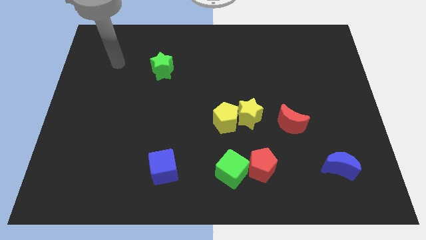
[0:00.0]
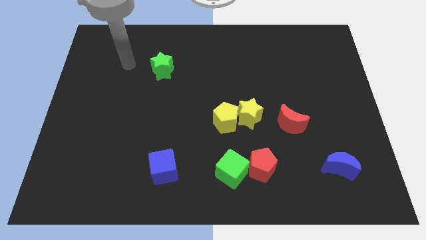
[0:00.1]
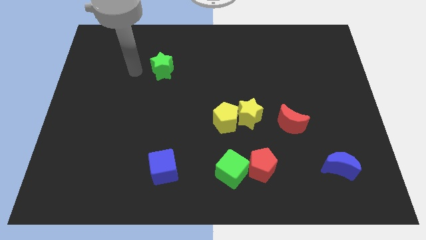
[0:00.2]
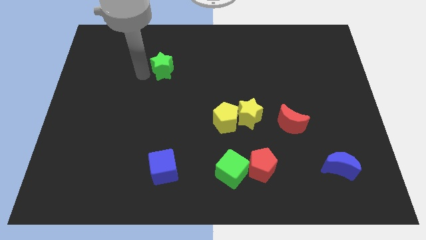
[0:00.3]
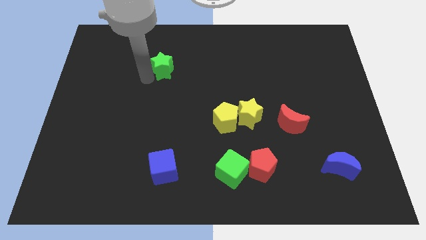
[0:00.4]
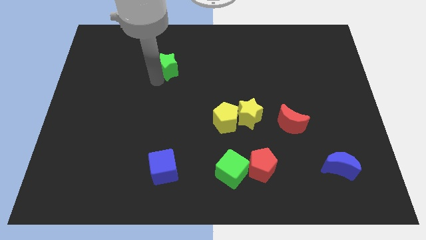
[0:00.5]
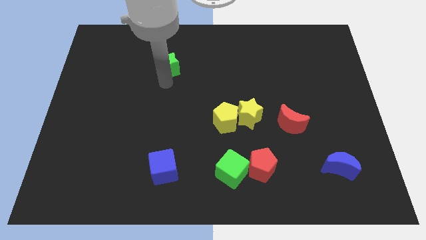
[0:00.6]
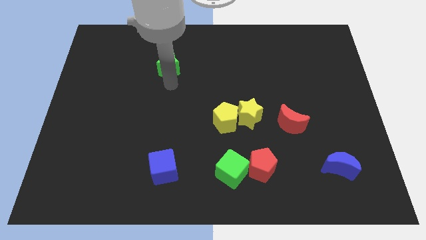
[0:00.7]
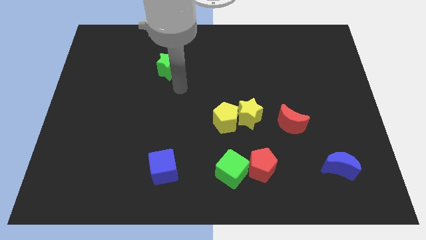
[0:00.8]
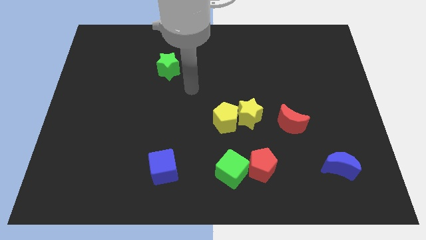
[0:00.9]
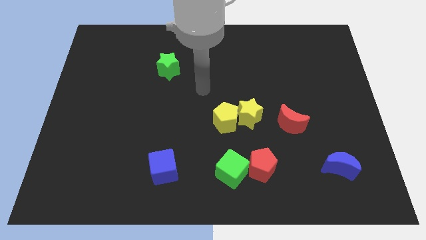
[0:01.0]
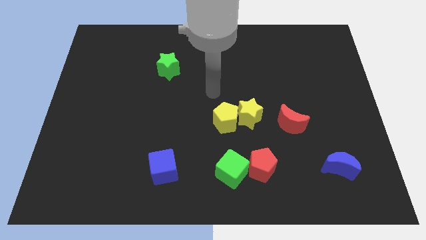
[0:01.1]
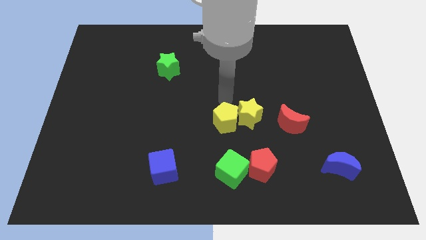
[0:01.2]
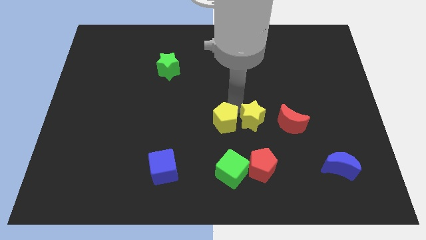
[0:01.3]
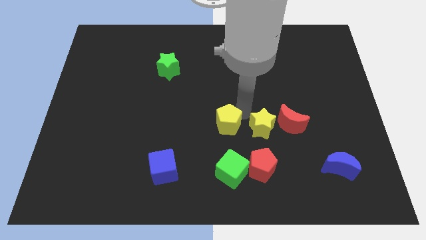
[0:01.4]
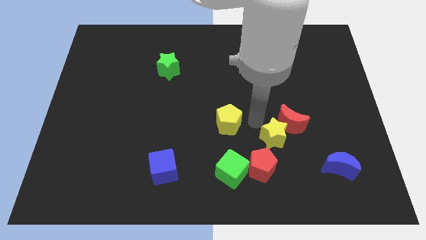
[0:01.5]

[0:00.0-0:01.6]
move the yellow pentagon away from the yellow star

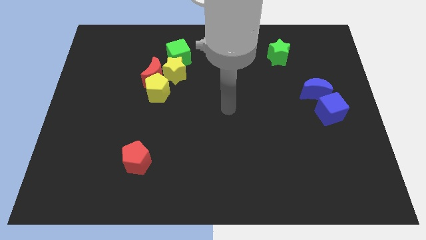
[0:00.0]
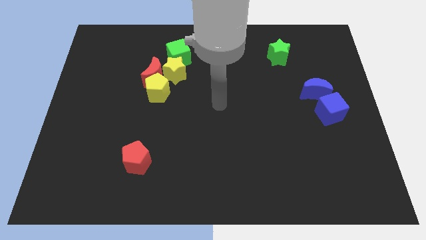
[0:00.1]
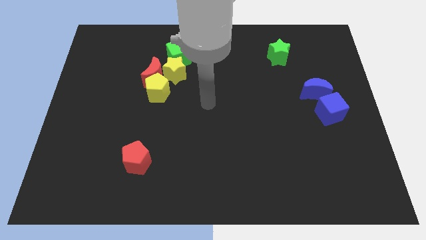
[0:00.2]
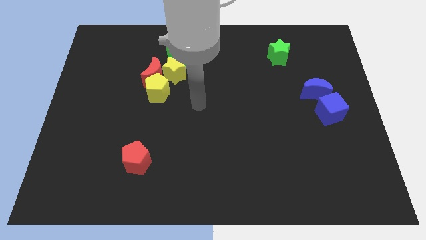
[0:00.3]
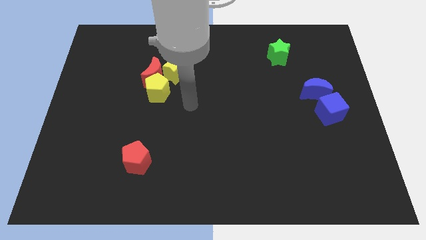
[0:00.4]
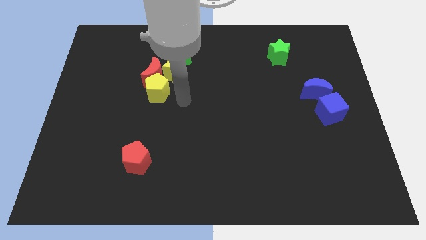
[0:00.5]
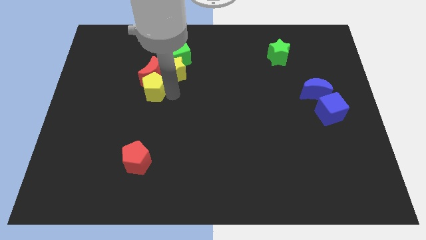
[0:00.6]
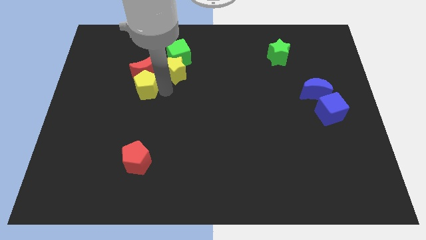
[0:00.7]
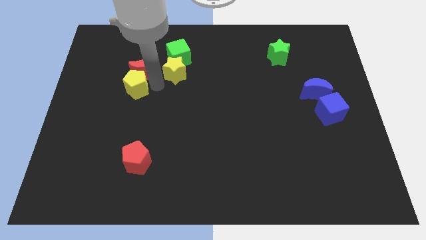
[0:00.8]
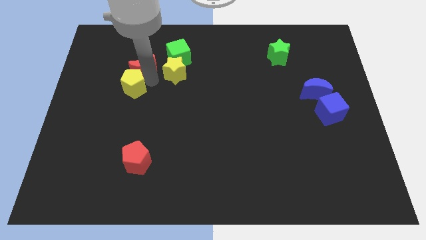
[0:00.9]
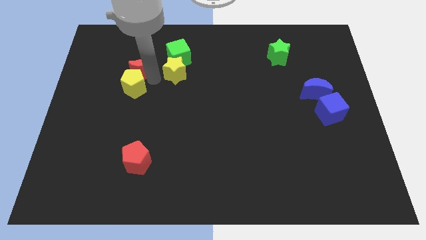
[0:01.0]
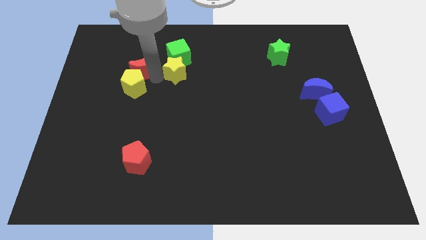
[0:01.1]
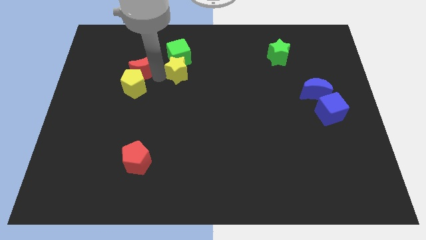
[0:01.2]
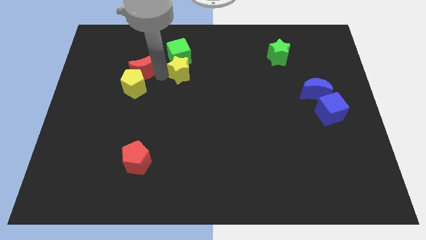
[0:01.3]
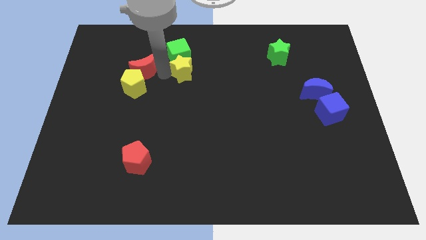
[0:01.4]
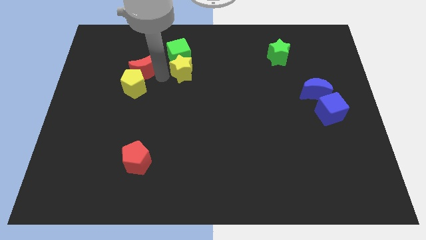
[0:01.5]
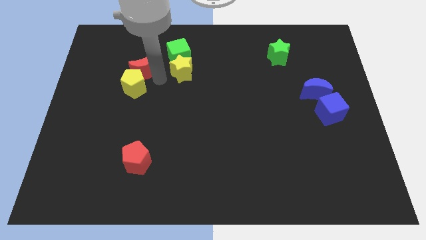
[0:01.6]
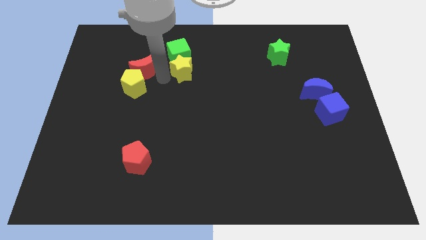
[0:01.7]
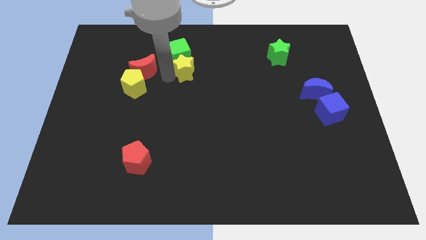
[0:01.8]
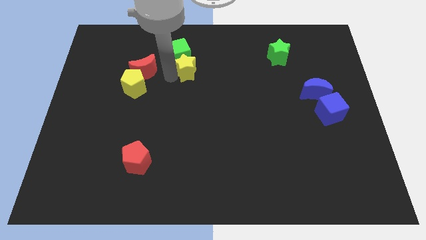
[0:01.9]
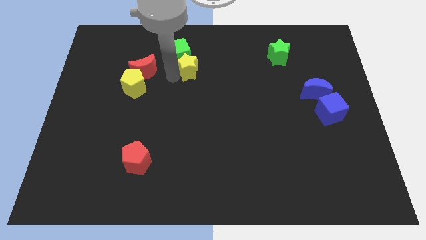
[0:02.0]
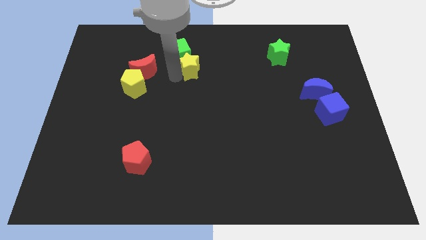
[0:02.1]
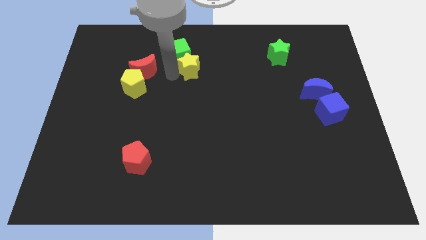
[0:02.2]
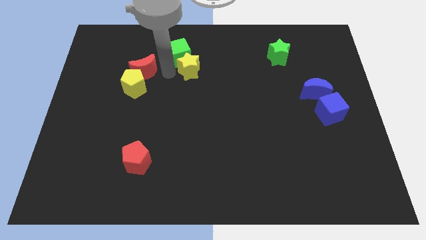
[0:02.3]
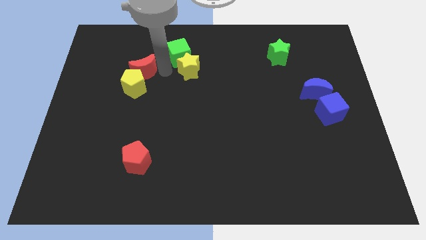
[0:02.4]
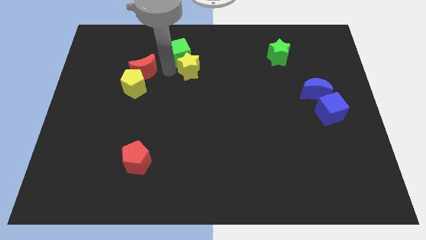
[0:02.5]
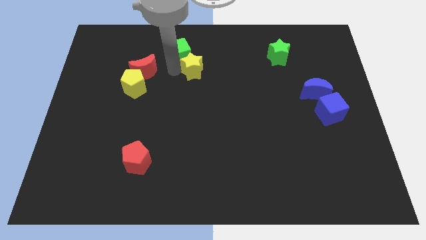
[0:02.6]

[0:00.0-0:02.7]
separate the yellow star from the red moon, green cube, and yellow pentagon

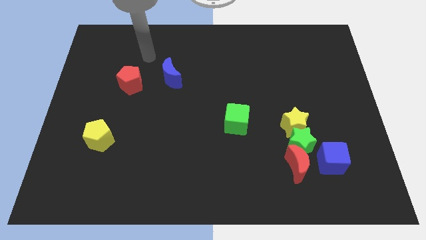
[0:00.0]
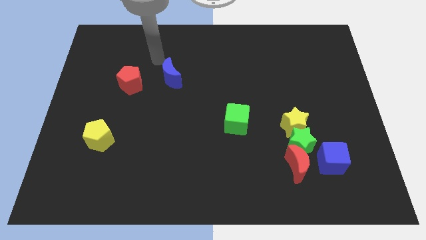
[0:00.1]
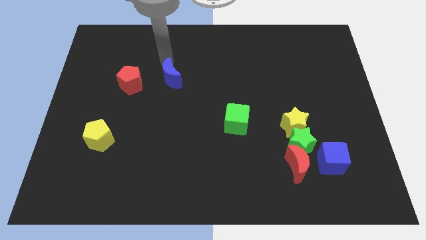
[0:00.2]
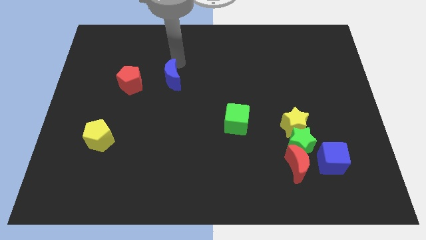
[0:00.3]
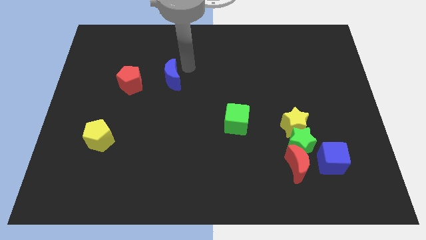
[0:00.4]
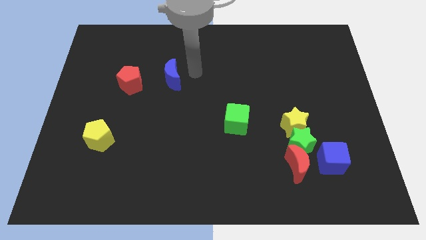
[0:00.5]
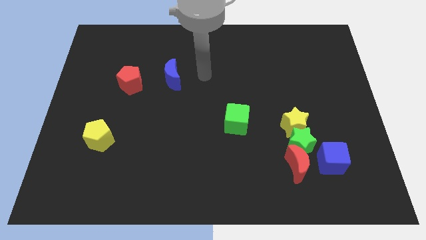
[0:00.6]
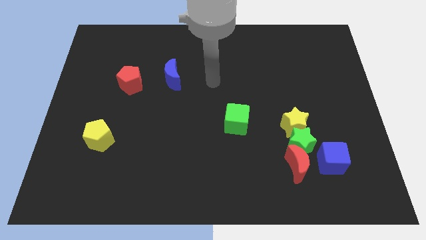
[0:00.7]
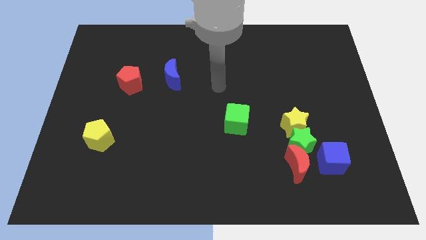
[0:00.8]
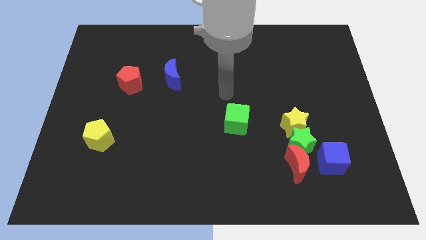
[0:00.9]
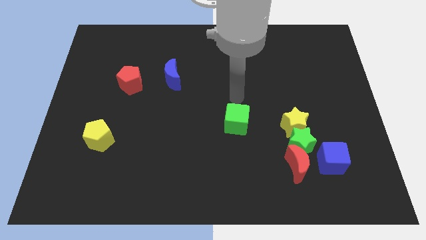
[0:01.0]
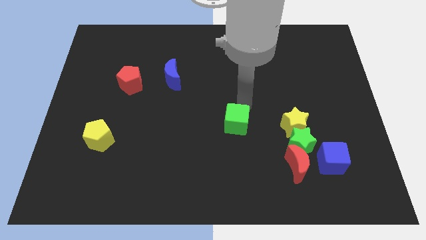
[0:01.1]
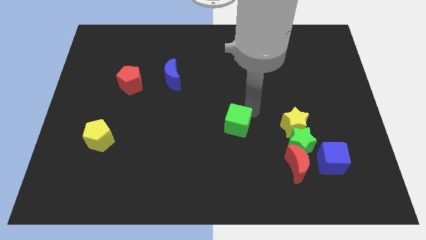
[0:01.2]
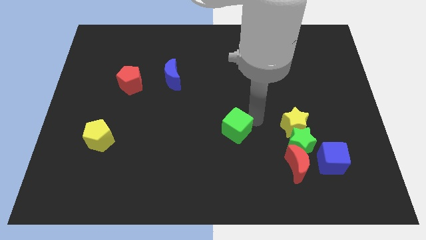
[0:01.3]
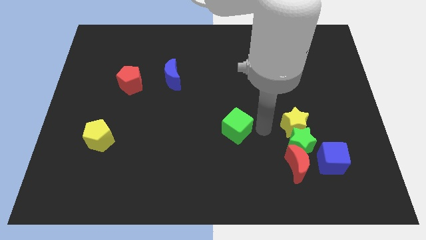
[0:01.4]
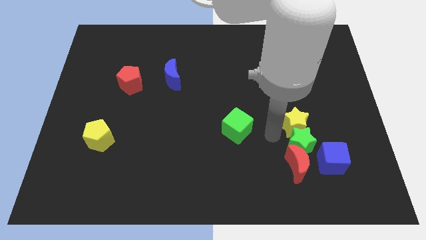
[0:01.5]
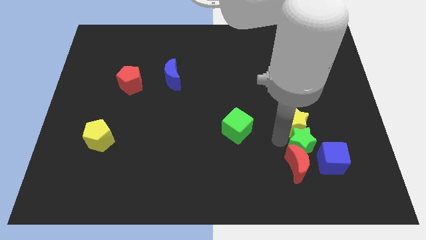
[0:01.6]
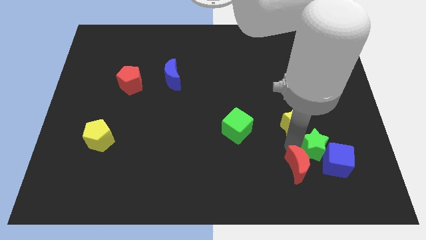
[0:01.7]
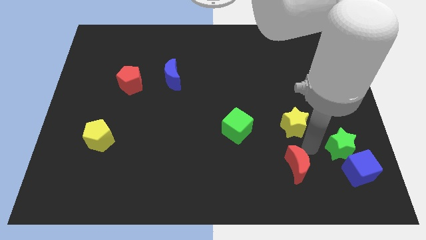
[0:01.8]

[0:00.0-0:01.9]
separate the yellow star from the green star

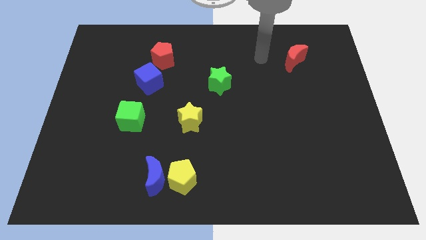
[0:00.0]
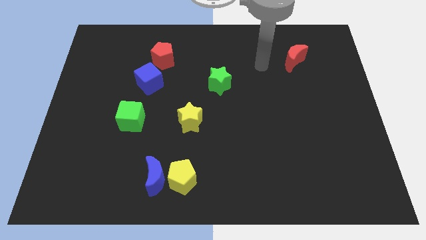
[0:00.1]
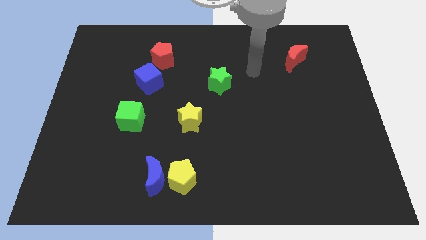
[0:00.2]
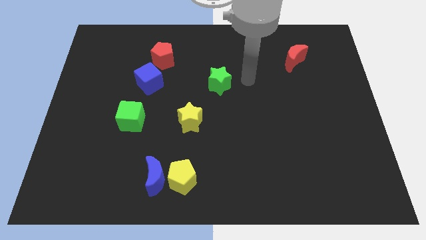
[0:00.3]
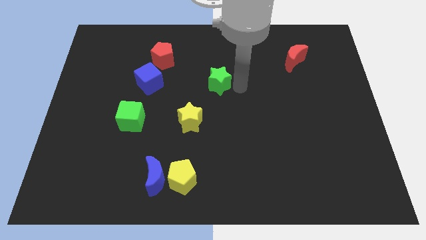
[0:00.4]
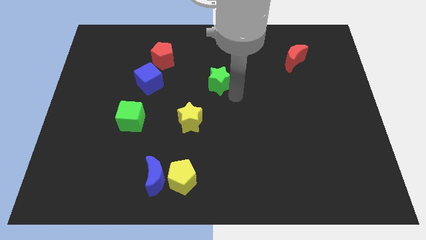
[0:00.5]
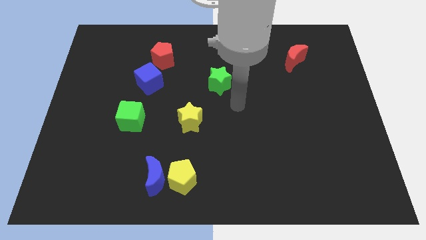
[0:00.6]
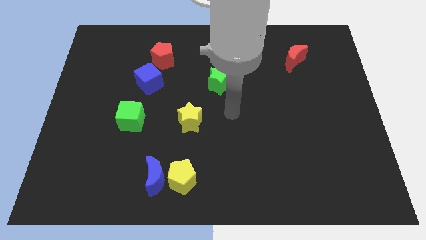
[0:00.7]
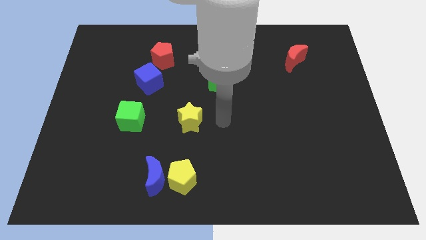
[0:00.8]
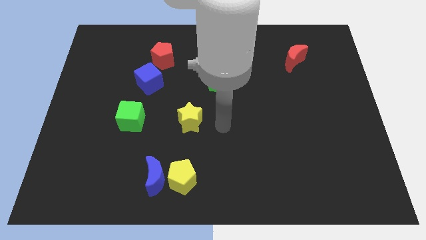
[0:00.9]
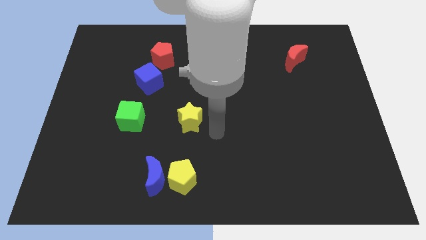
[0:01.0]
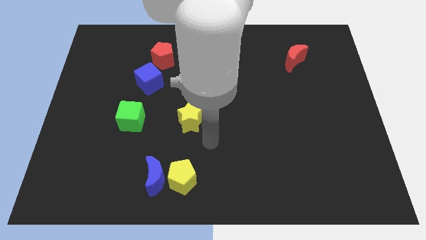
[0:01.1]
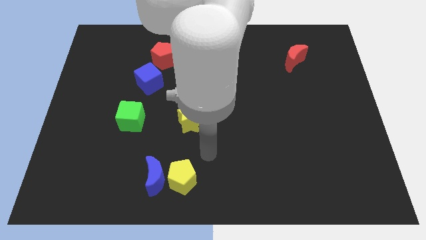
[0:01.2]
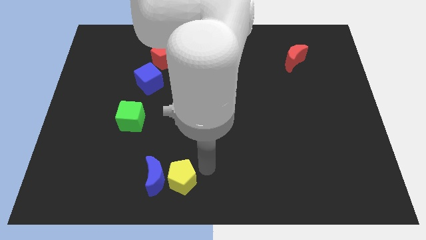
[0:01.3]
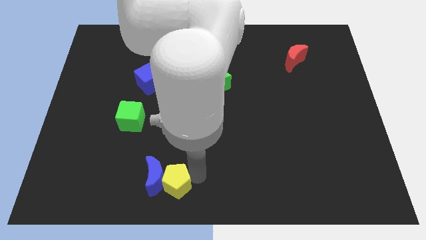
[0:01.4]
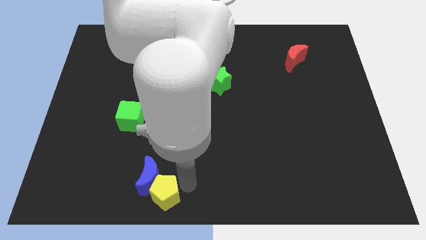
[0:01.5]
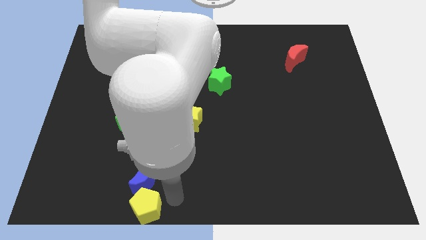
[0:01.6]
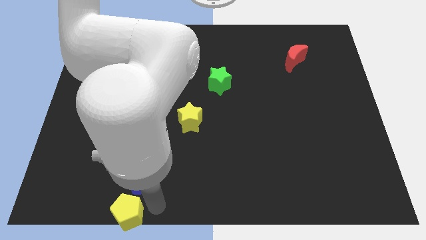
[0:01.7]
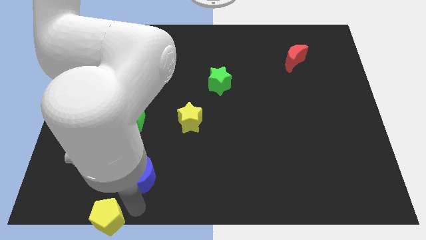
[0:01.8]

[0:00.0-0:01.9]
move the blue moon away from the yellow pentagon

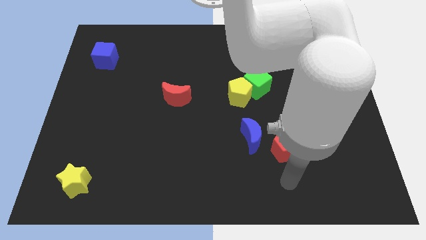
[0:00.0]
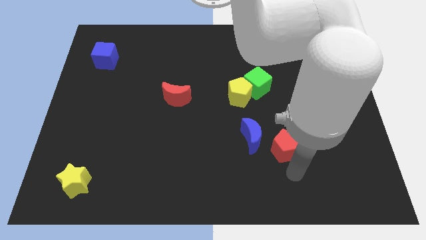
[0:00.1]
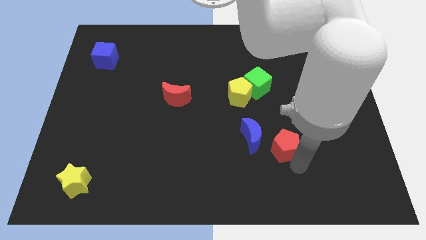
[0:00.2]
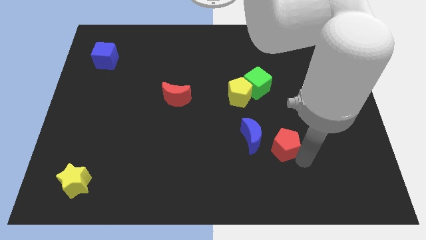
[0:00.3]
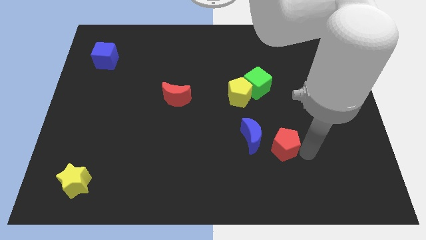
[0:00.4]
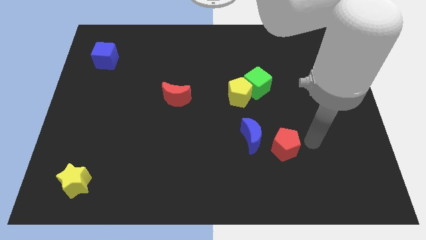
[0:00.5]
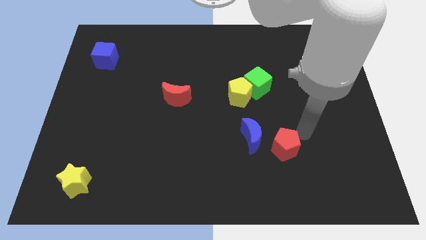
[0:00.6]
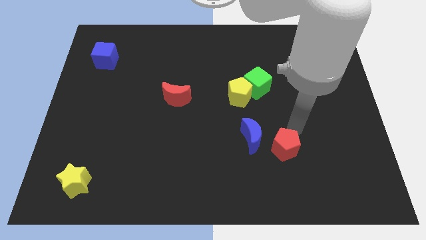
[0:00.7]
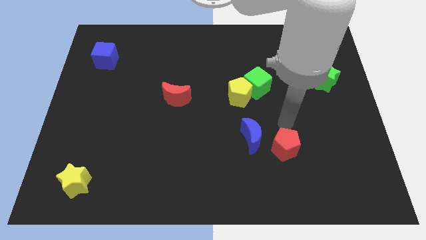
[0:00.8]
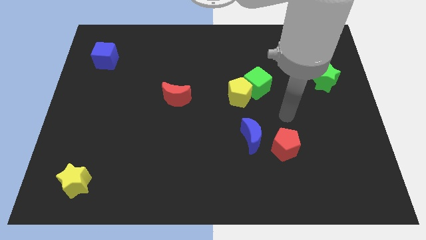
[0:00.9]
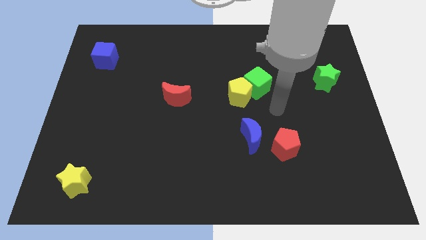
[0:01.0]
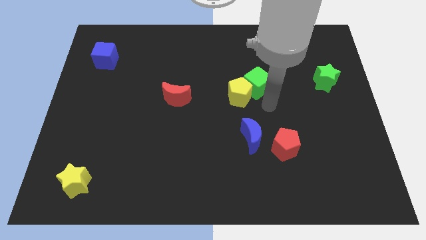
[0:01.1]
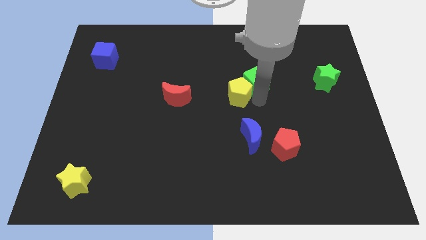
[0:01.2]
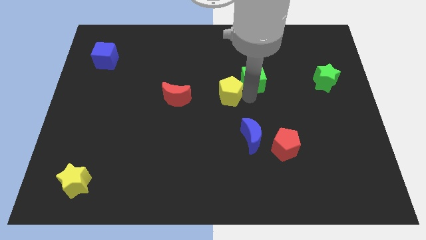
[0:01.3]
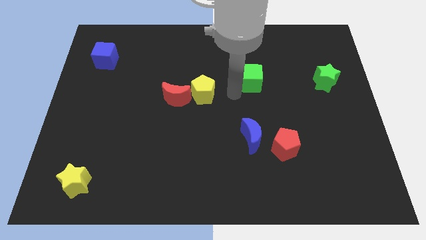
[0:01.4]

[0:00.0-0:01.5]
pull the green cube apart from the yellow pentagon
